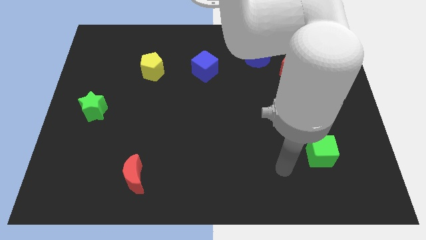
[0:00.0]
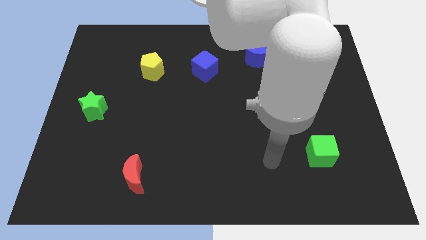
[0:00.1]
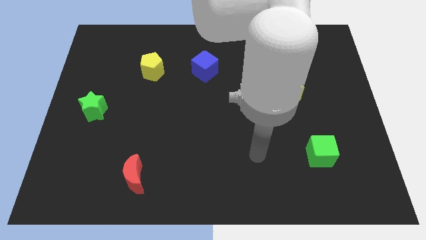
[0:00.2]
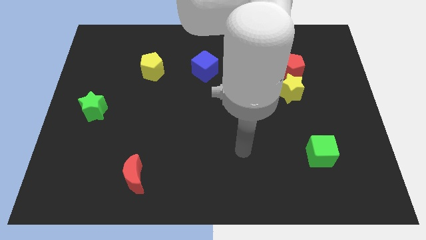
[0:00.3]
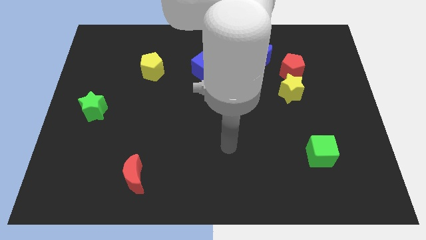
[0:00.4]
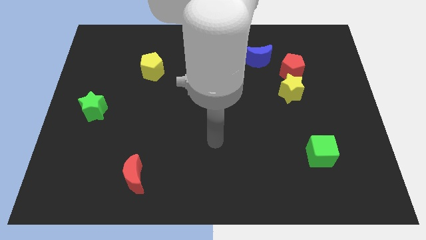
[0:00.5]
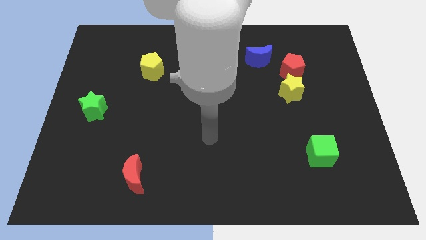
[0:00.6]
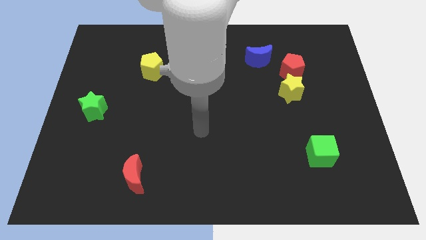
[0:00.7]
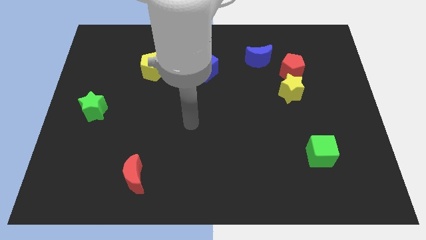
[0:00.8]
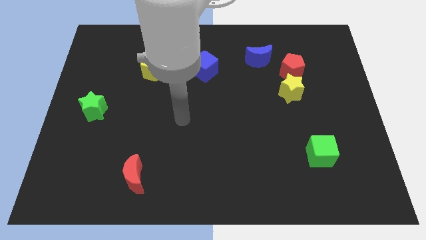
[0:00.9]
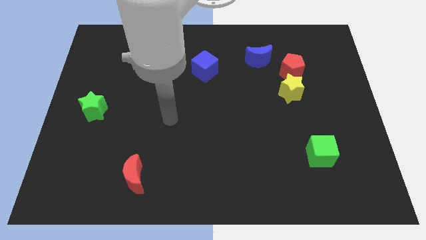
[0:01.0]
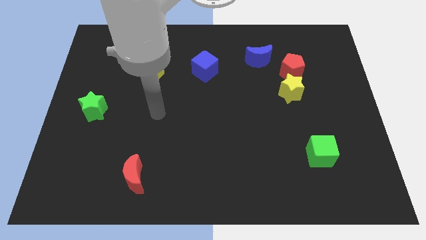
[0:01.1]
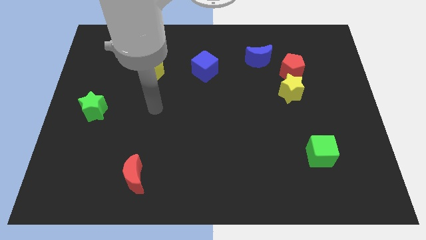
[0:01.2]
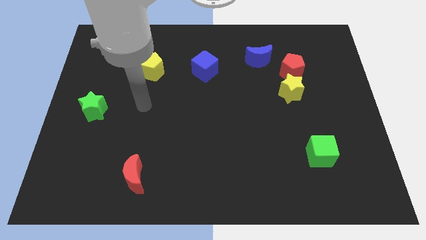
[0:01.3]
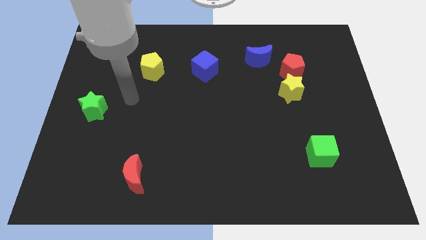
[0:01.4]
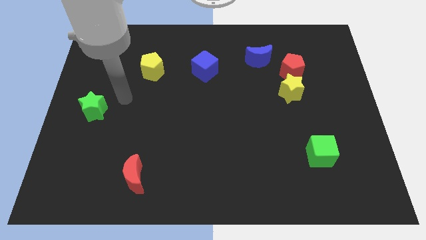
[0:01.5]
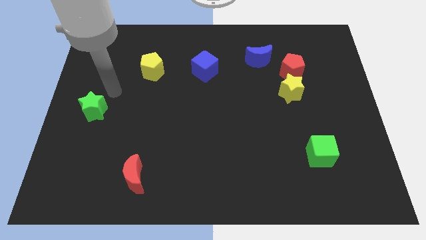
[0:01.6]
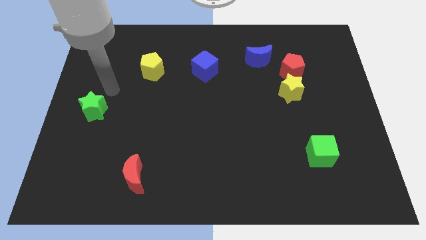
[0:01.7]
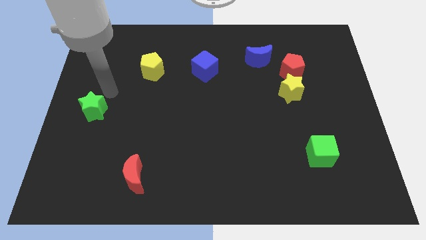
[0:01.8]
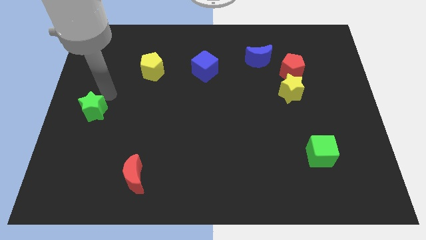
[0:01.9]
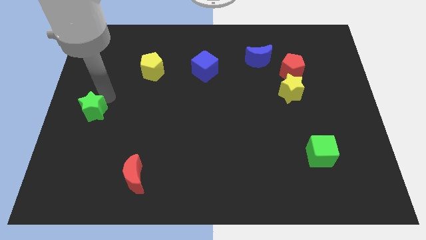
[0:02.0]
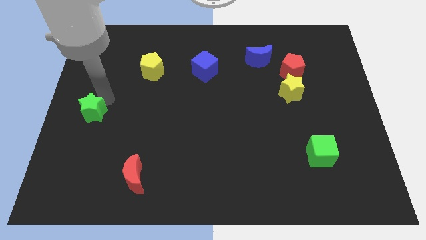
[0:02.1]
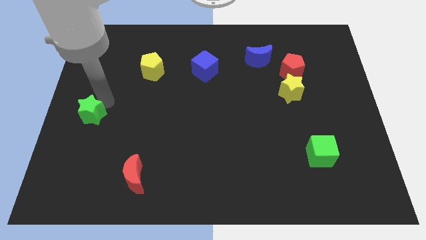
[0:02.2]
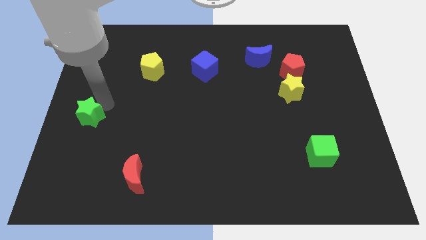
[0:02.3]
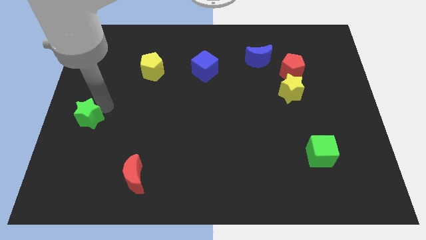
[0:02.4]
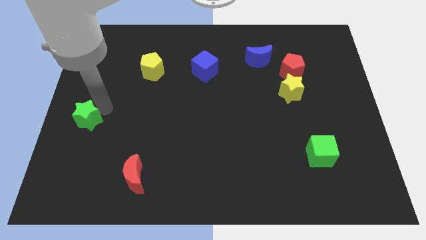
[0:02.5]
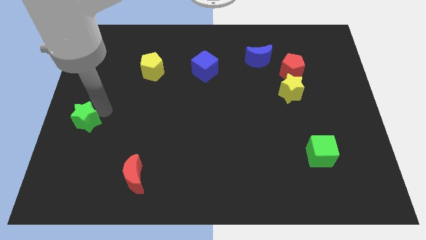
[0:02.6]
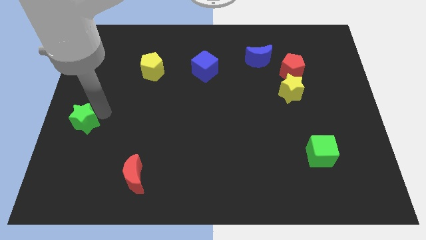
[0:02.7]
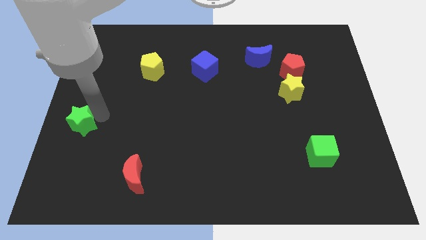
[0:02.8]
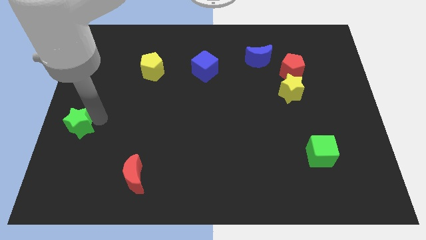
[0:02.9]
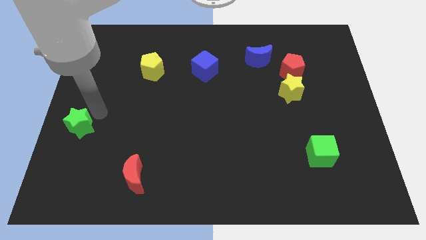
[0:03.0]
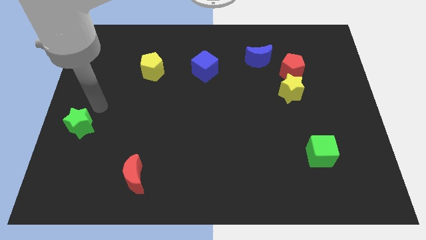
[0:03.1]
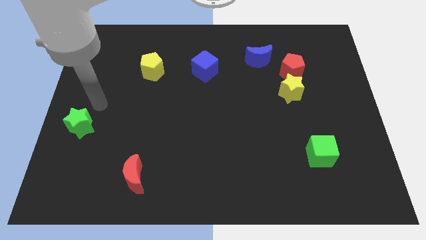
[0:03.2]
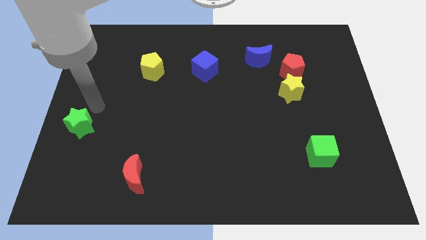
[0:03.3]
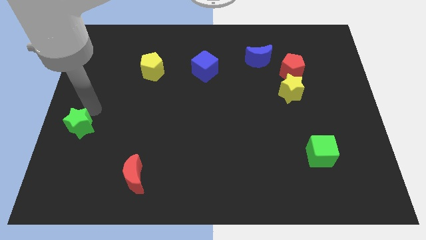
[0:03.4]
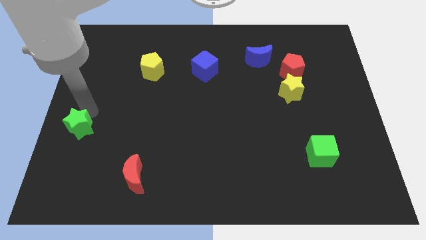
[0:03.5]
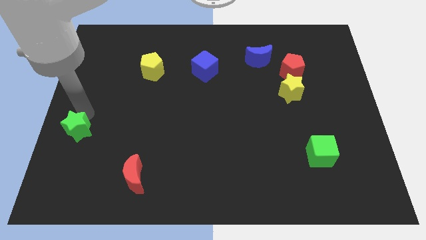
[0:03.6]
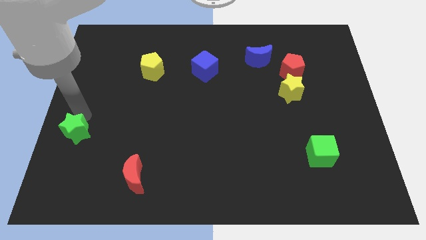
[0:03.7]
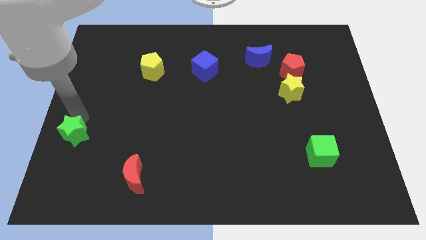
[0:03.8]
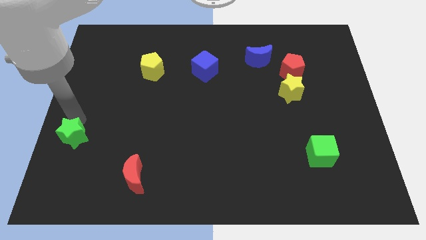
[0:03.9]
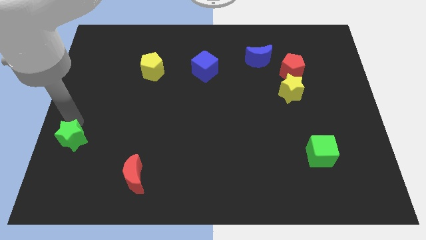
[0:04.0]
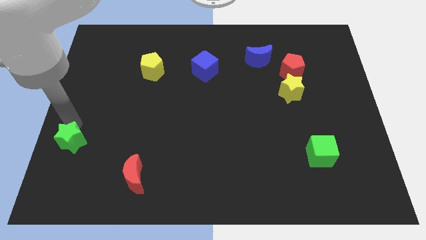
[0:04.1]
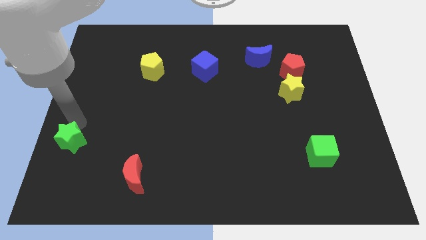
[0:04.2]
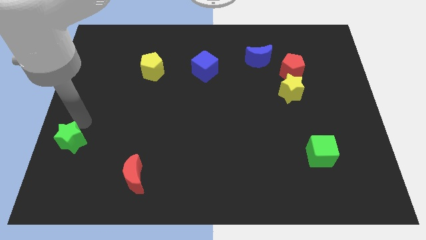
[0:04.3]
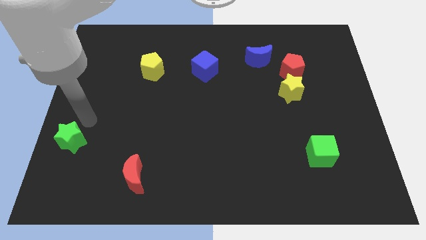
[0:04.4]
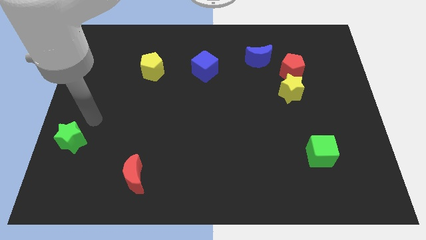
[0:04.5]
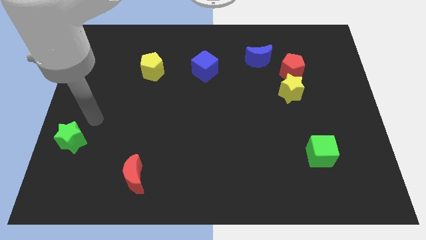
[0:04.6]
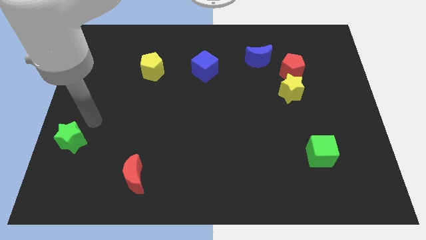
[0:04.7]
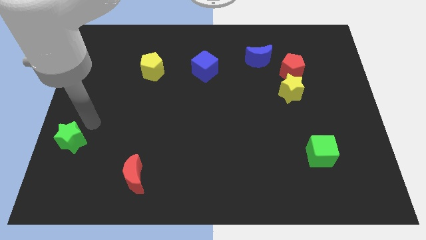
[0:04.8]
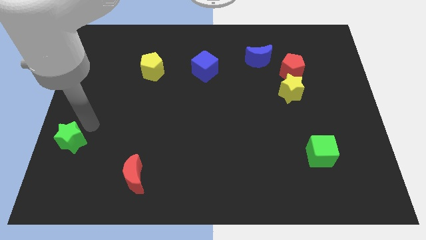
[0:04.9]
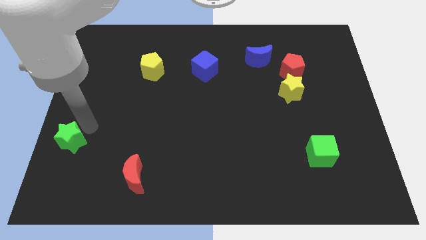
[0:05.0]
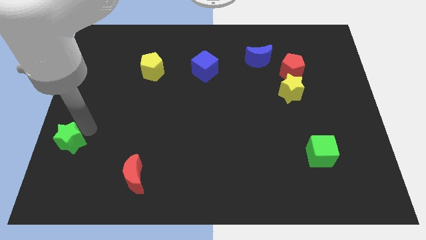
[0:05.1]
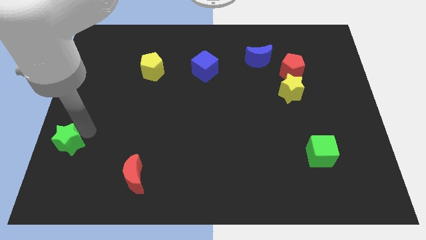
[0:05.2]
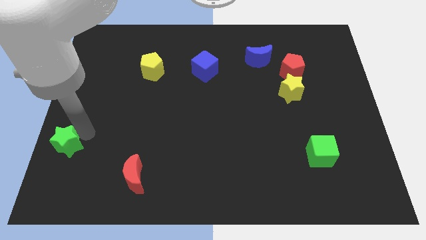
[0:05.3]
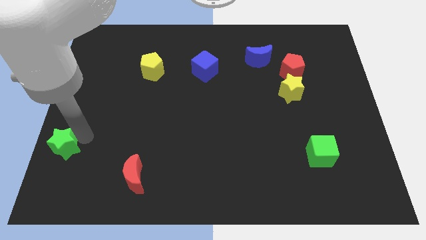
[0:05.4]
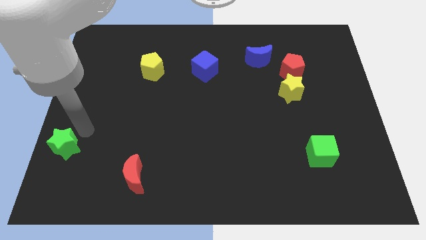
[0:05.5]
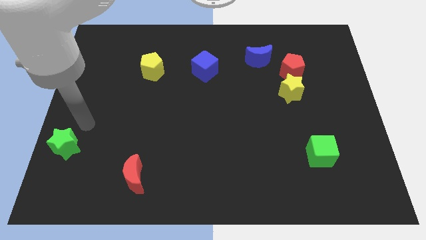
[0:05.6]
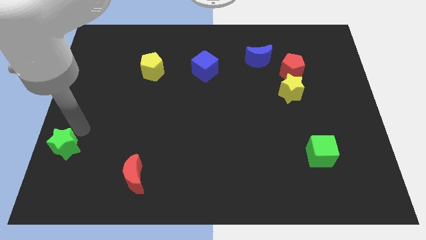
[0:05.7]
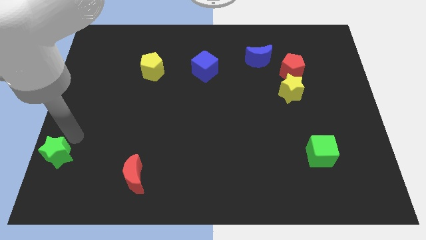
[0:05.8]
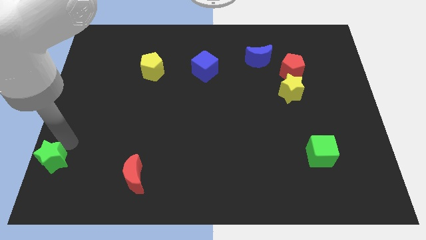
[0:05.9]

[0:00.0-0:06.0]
slide the green star to the bottom left of the board

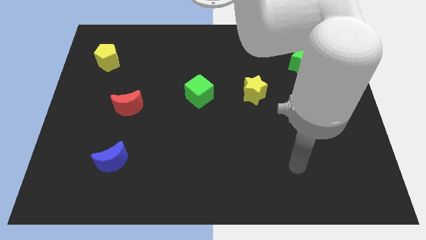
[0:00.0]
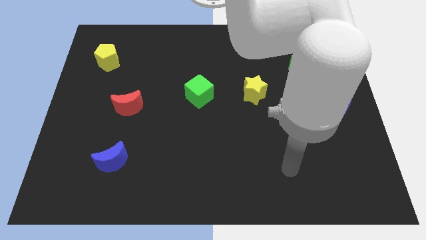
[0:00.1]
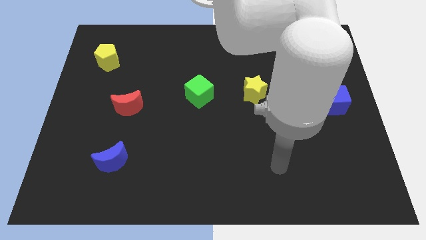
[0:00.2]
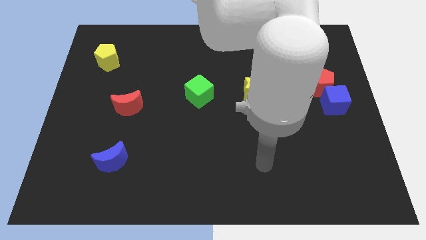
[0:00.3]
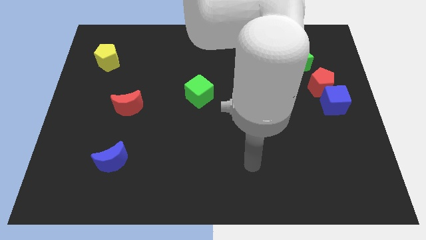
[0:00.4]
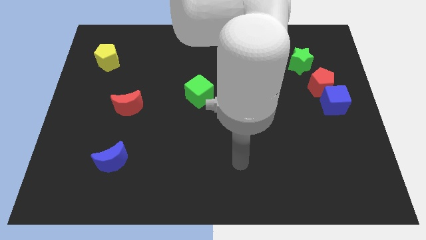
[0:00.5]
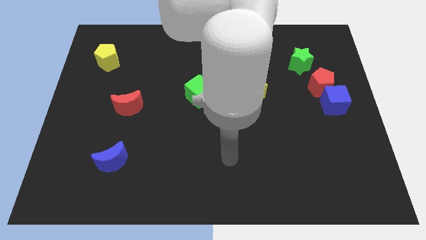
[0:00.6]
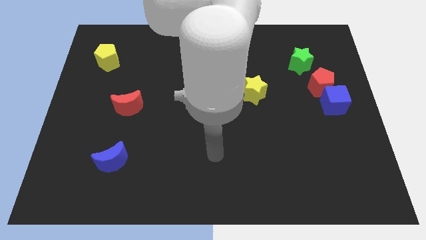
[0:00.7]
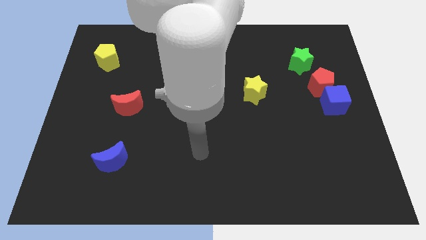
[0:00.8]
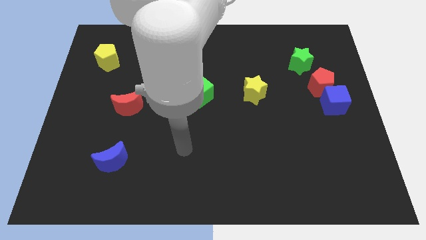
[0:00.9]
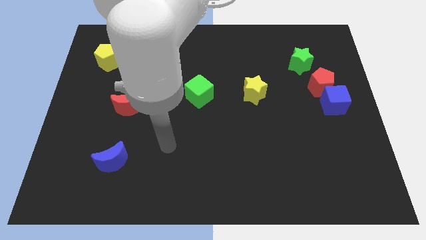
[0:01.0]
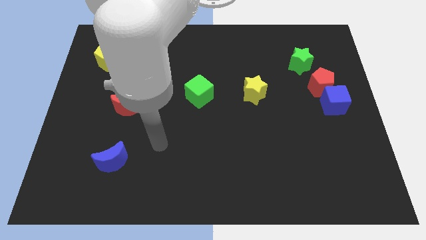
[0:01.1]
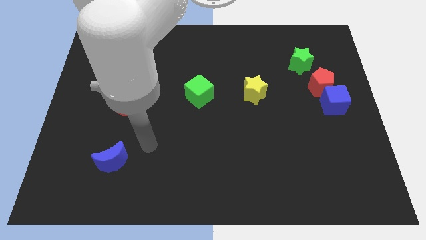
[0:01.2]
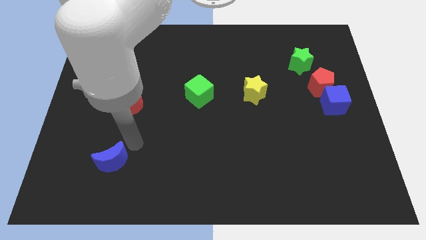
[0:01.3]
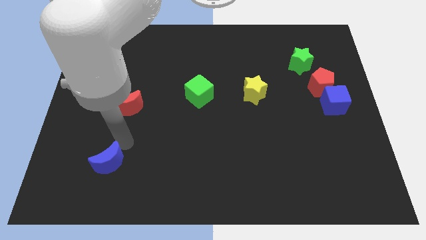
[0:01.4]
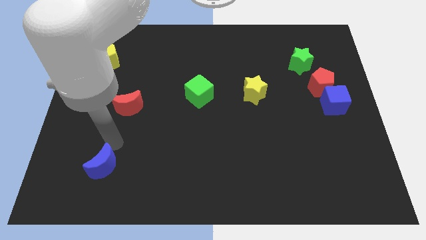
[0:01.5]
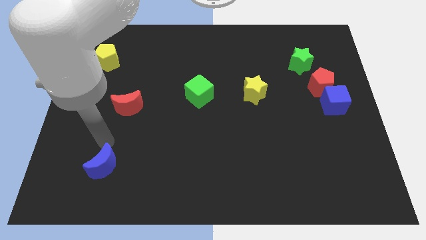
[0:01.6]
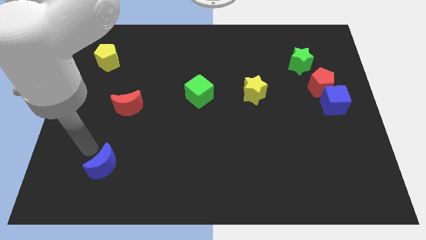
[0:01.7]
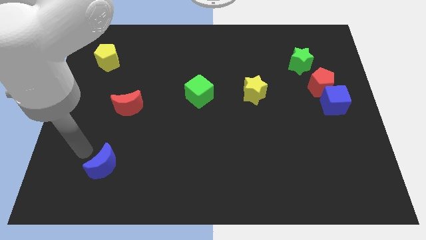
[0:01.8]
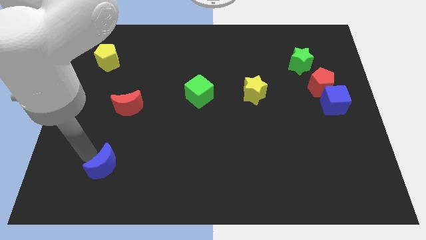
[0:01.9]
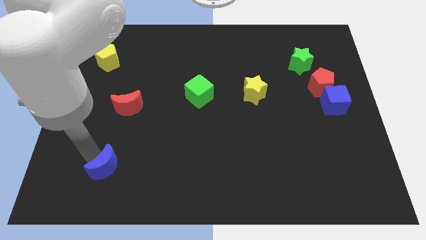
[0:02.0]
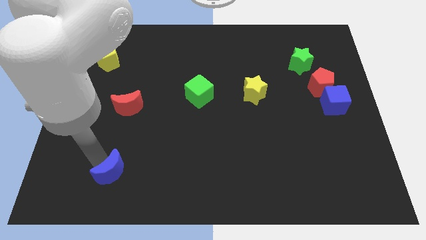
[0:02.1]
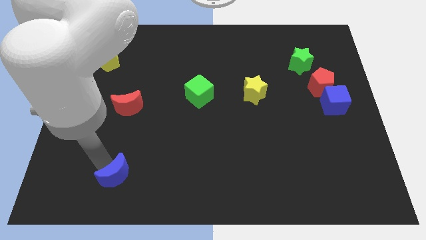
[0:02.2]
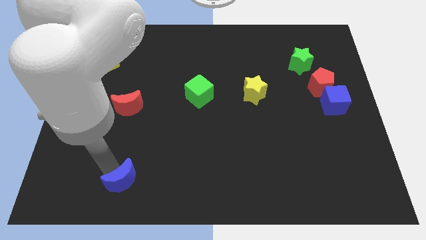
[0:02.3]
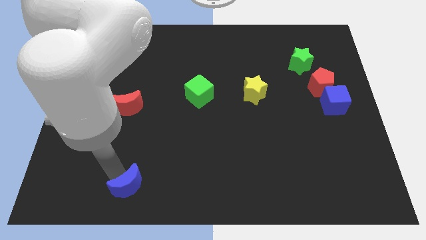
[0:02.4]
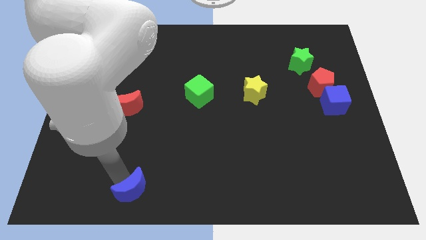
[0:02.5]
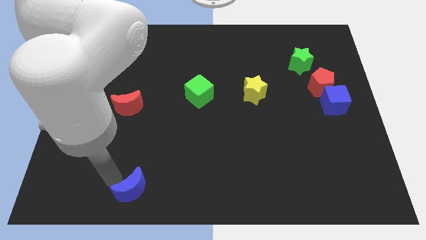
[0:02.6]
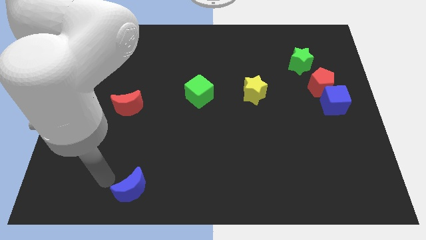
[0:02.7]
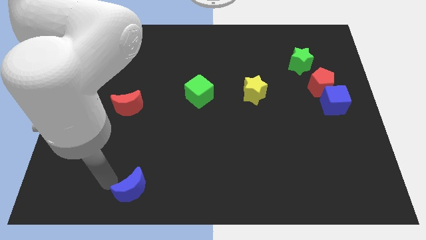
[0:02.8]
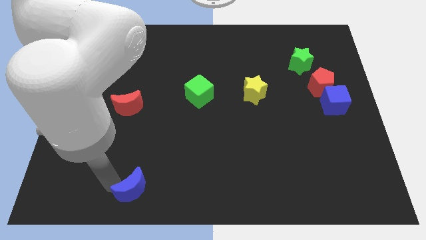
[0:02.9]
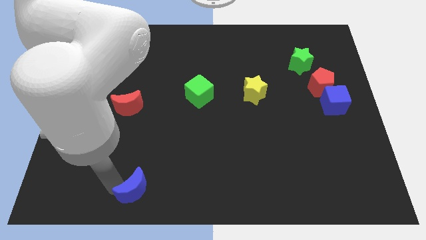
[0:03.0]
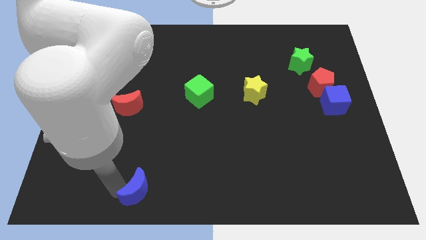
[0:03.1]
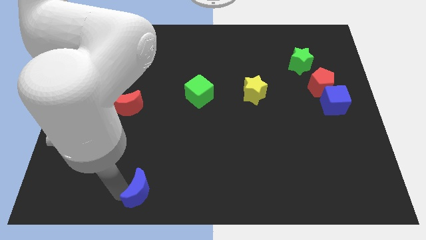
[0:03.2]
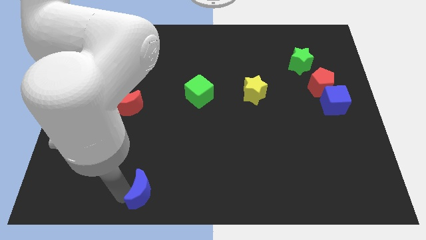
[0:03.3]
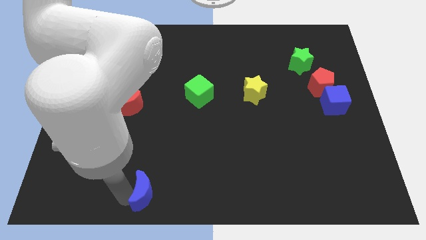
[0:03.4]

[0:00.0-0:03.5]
move the blue moon to the bottom
